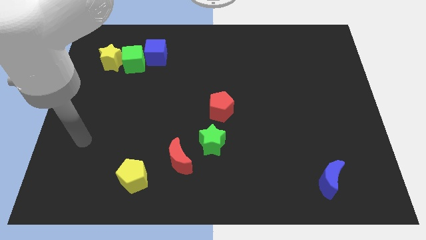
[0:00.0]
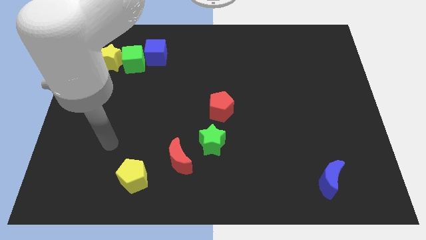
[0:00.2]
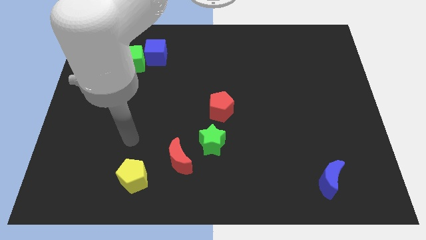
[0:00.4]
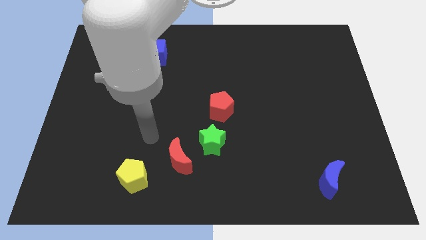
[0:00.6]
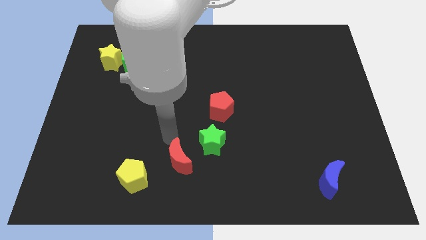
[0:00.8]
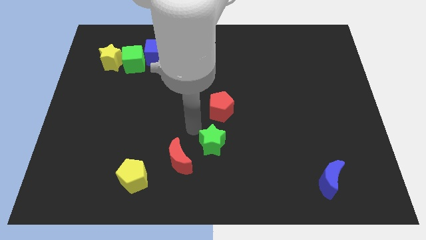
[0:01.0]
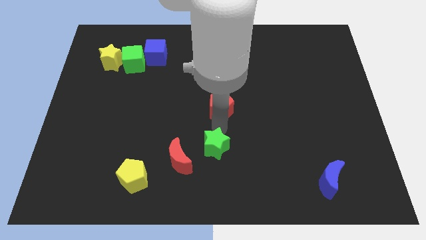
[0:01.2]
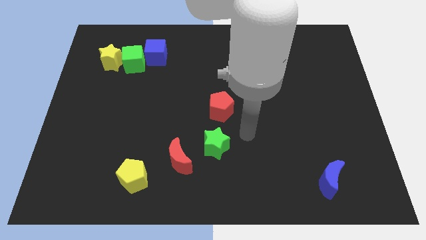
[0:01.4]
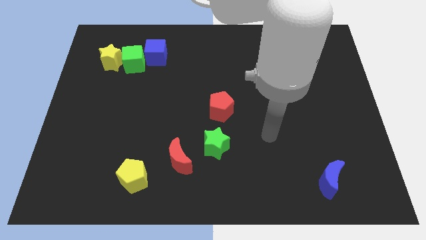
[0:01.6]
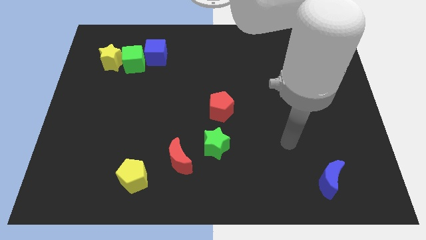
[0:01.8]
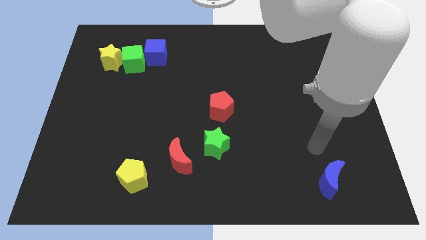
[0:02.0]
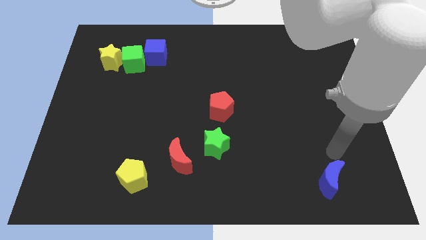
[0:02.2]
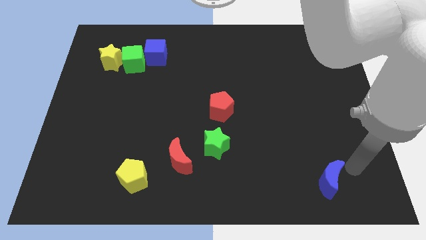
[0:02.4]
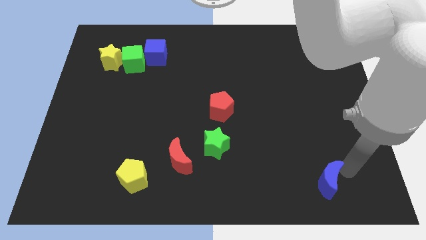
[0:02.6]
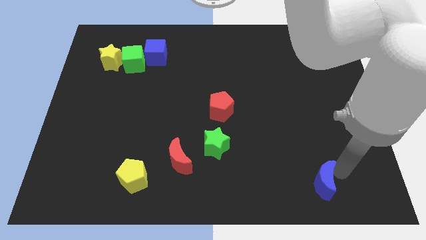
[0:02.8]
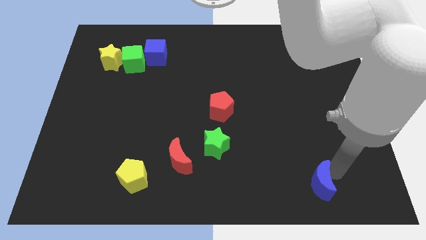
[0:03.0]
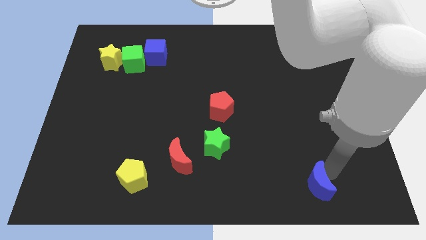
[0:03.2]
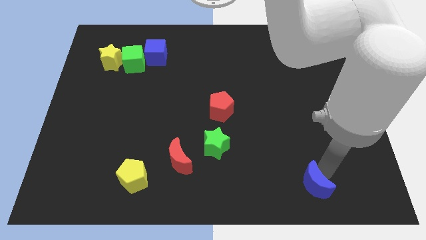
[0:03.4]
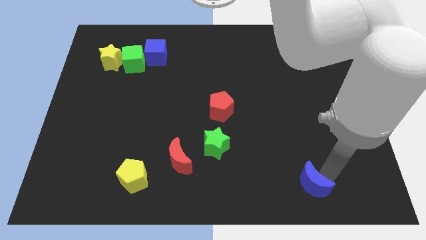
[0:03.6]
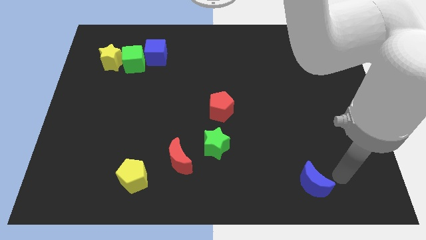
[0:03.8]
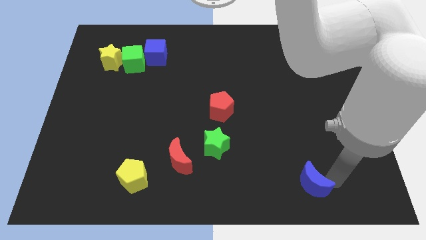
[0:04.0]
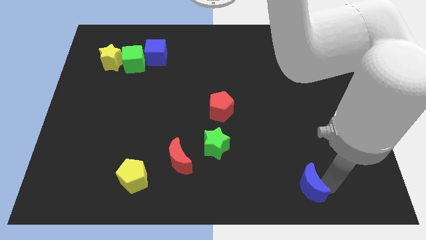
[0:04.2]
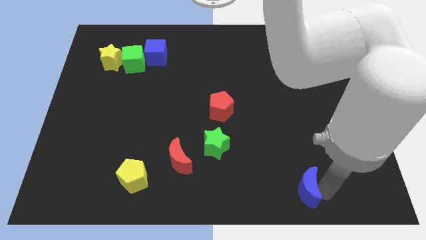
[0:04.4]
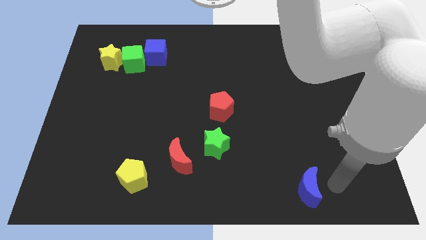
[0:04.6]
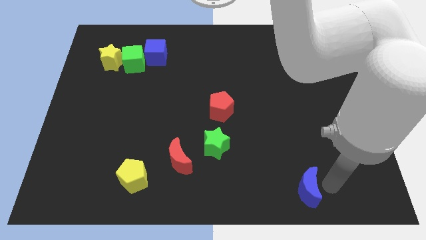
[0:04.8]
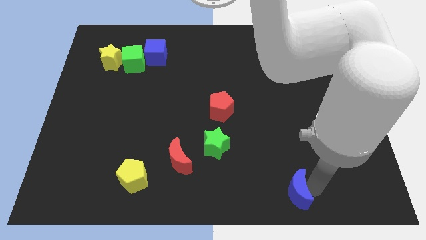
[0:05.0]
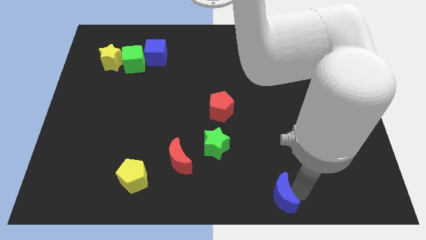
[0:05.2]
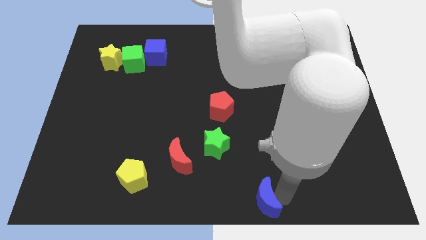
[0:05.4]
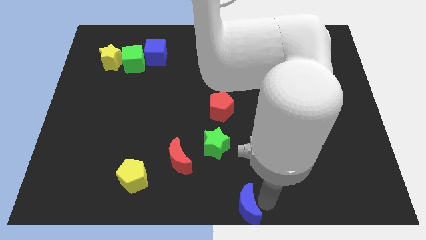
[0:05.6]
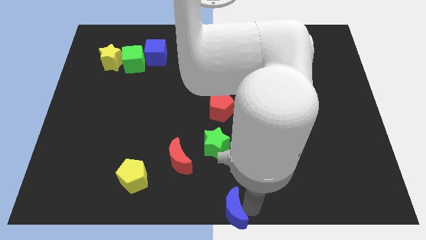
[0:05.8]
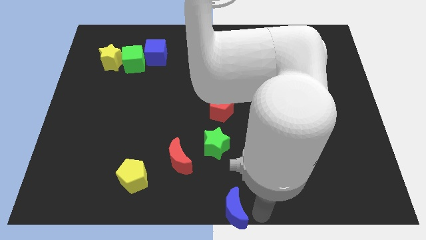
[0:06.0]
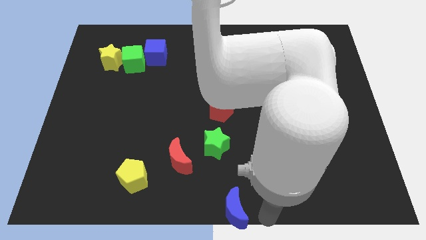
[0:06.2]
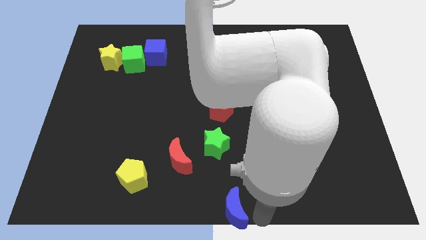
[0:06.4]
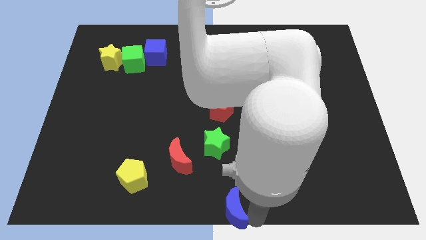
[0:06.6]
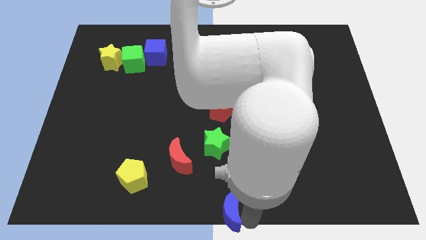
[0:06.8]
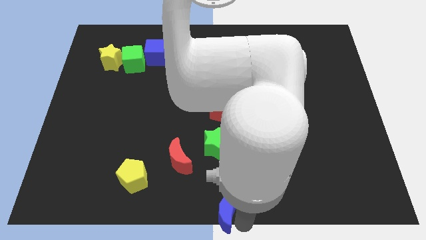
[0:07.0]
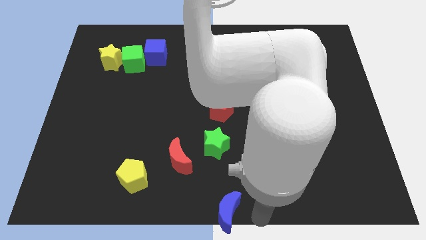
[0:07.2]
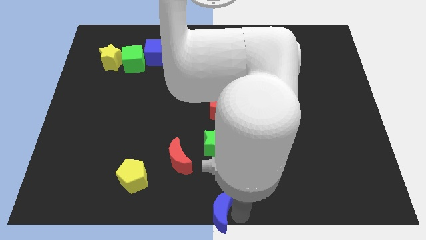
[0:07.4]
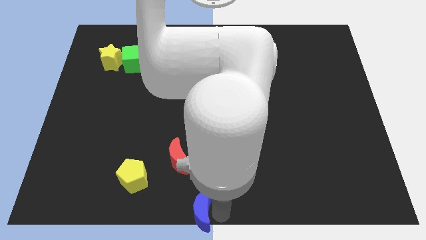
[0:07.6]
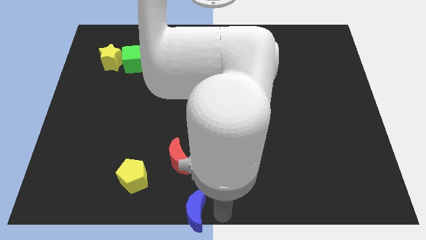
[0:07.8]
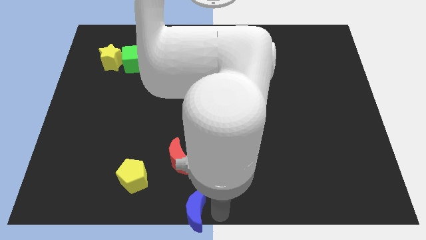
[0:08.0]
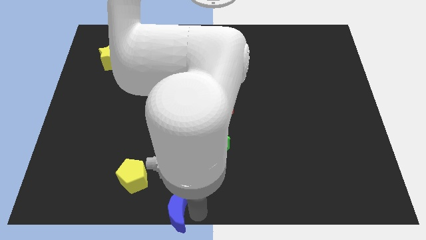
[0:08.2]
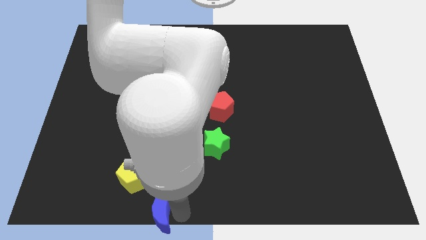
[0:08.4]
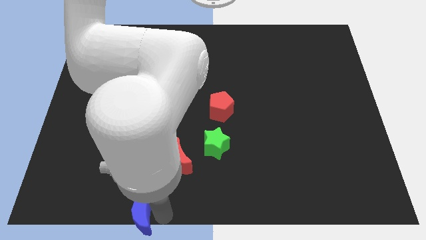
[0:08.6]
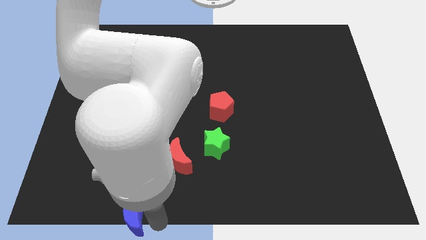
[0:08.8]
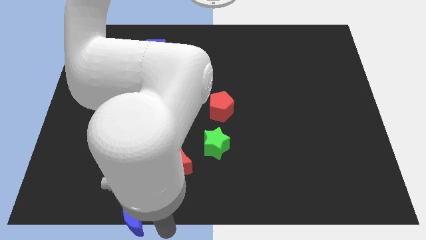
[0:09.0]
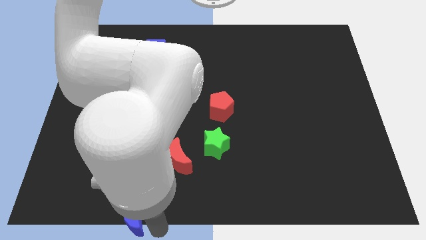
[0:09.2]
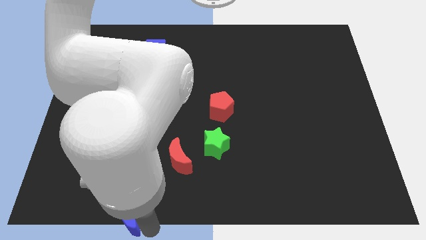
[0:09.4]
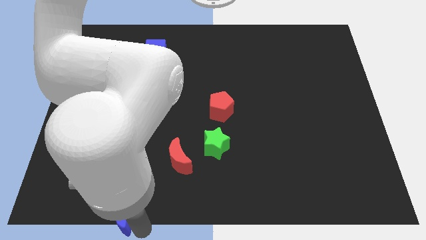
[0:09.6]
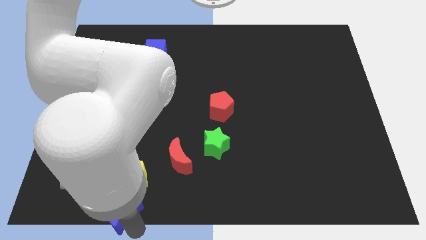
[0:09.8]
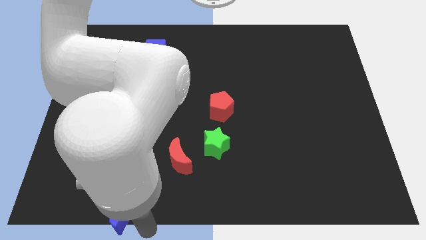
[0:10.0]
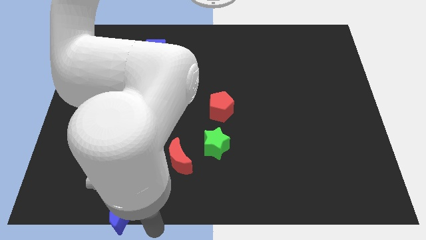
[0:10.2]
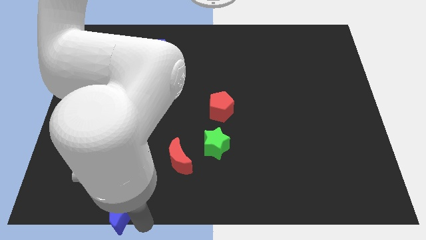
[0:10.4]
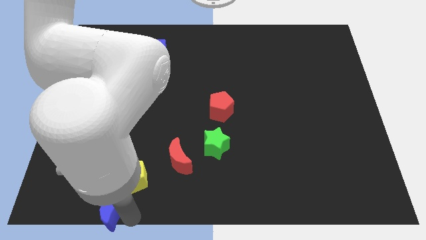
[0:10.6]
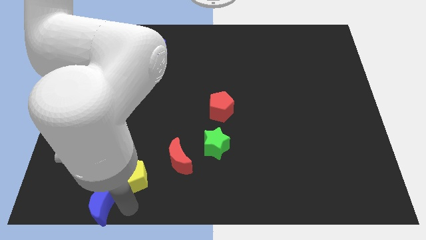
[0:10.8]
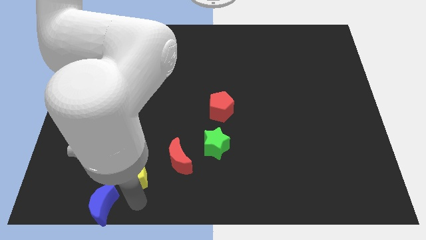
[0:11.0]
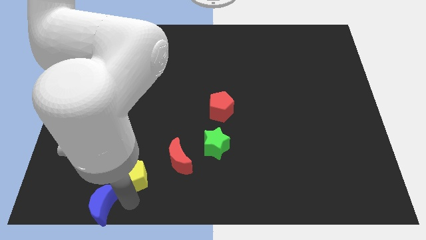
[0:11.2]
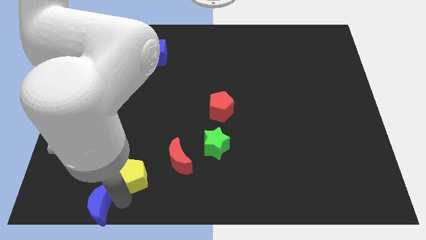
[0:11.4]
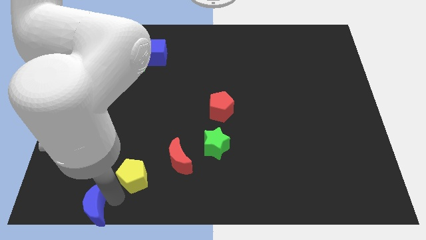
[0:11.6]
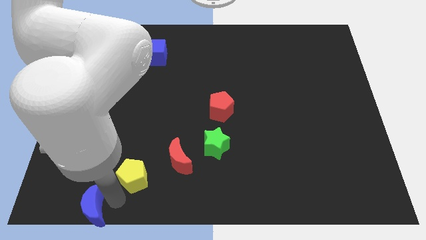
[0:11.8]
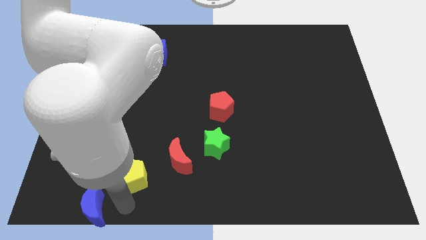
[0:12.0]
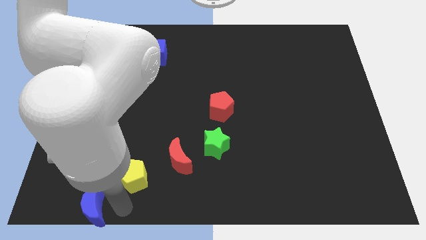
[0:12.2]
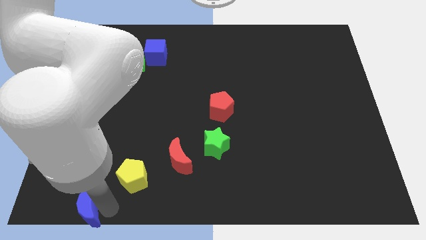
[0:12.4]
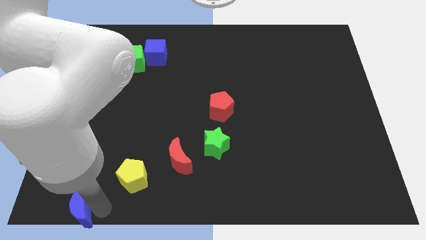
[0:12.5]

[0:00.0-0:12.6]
put the blue moon to the lower left corner

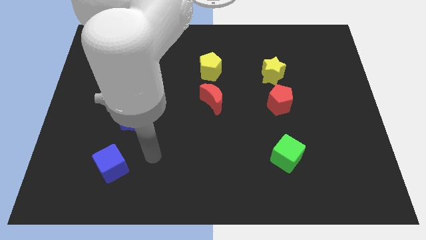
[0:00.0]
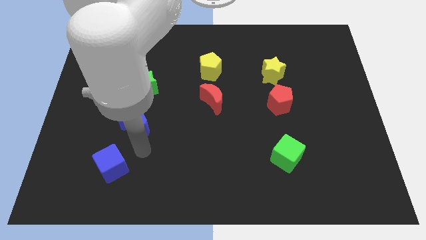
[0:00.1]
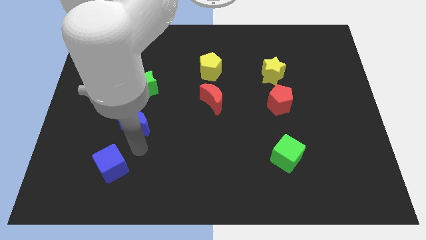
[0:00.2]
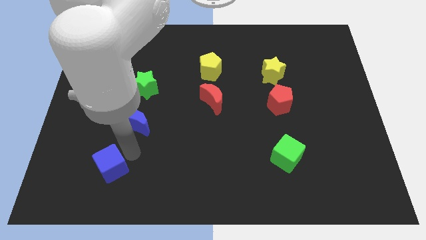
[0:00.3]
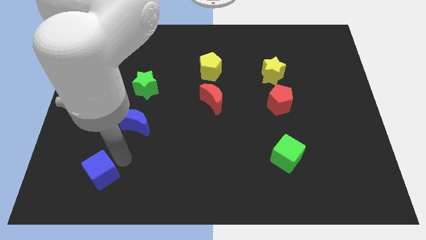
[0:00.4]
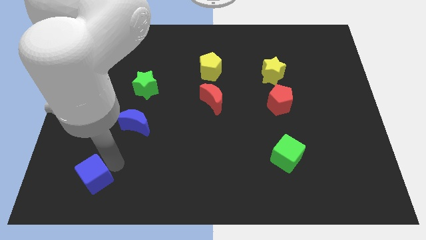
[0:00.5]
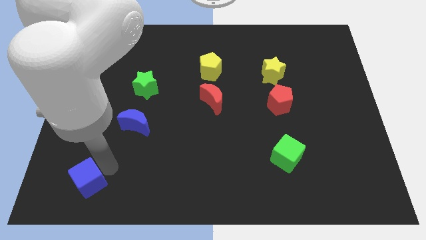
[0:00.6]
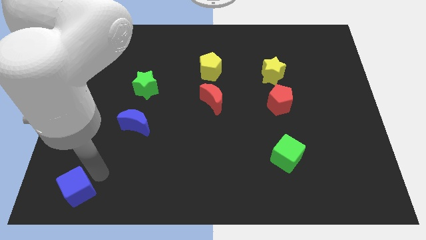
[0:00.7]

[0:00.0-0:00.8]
slide the blue cube to the bottom left of the board
